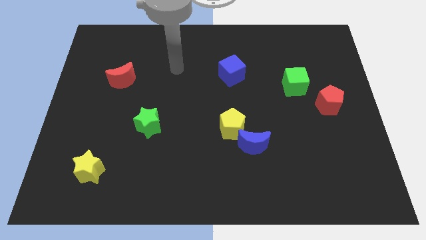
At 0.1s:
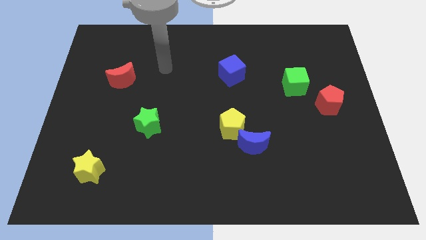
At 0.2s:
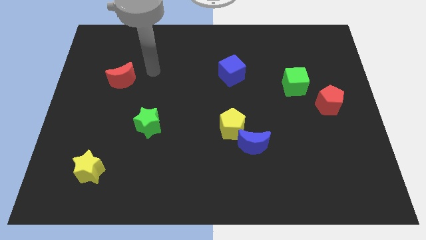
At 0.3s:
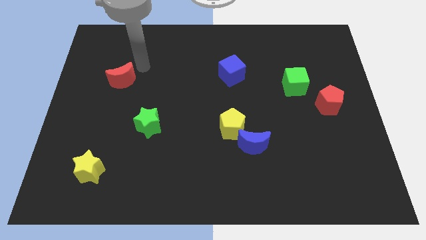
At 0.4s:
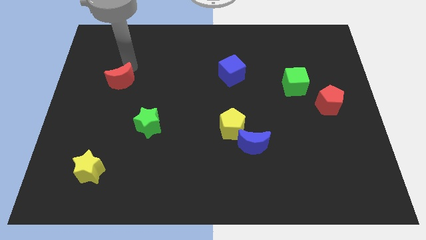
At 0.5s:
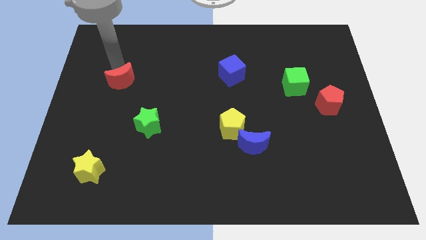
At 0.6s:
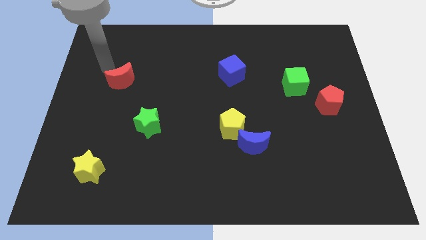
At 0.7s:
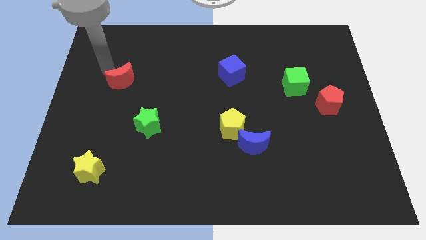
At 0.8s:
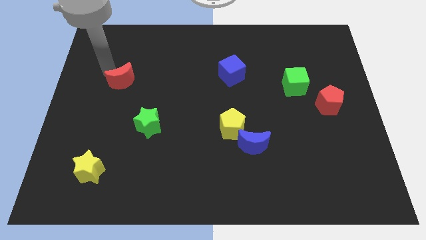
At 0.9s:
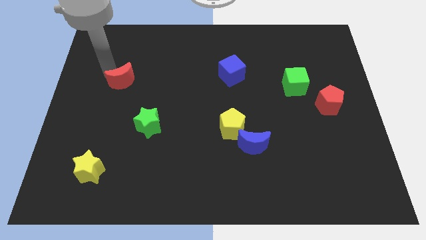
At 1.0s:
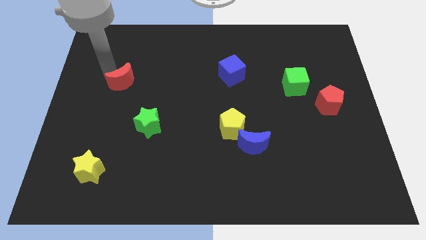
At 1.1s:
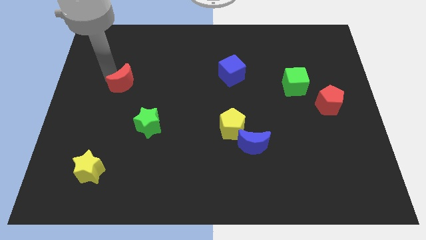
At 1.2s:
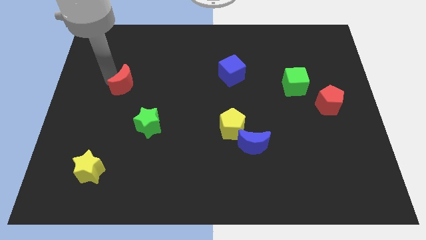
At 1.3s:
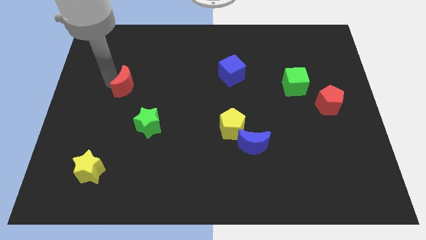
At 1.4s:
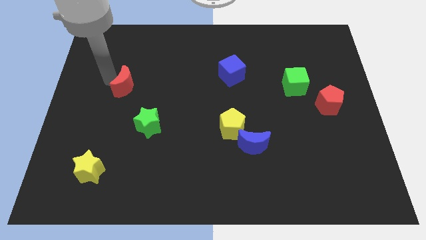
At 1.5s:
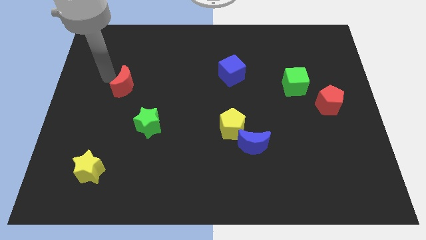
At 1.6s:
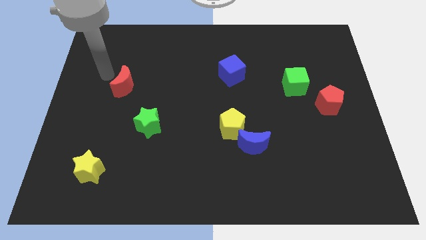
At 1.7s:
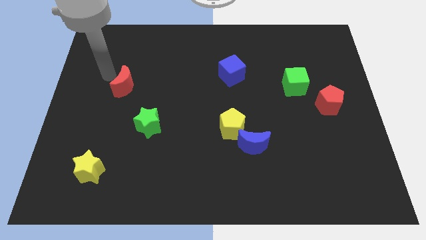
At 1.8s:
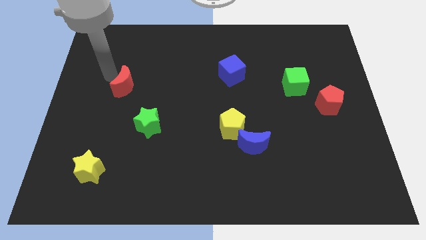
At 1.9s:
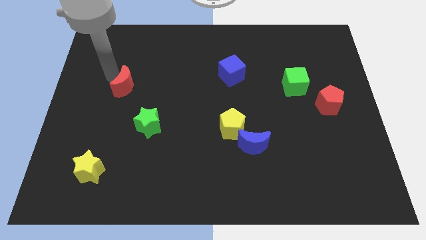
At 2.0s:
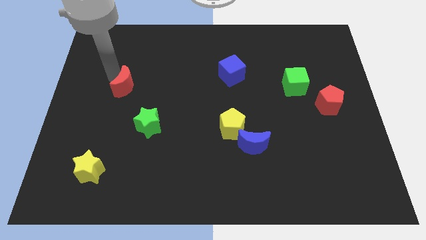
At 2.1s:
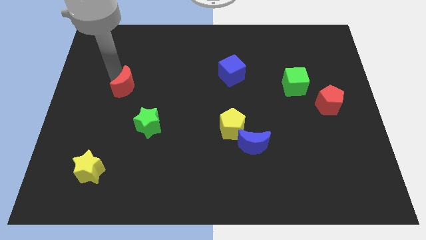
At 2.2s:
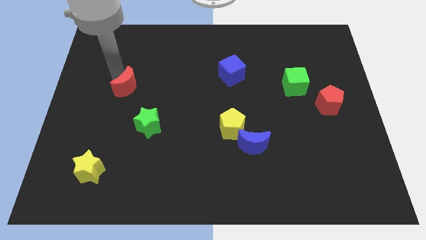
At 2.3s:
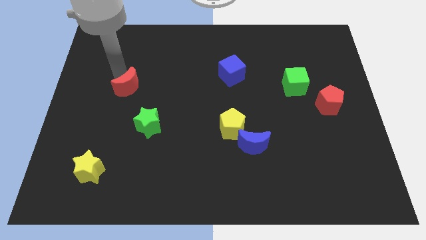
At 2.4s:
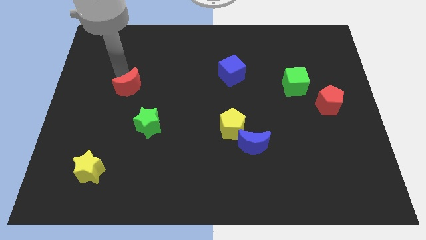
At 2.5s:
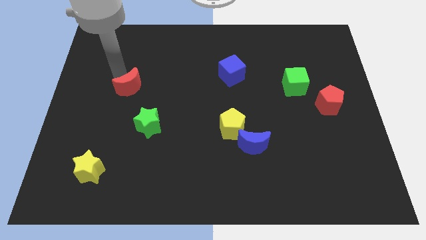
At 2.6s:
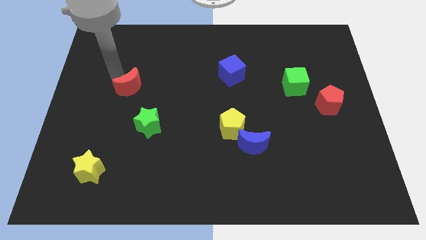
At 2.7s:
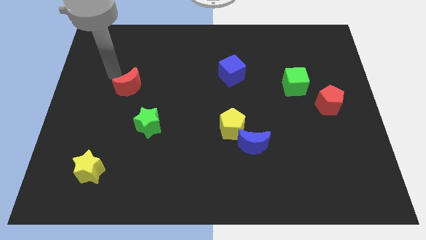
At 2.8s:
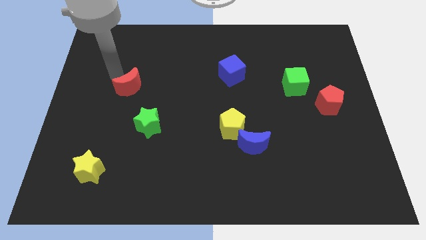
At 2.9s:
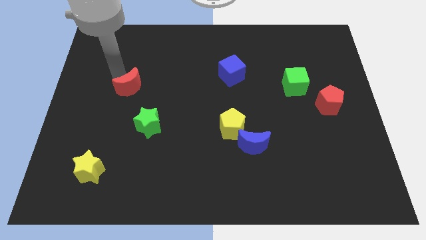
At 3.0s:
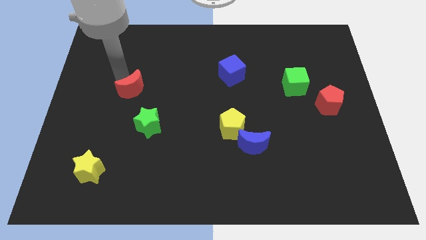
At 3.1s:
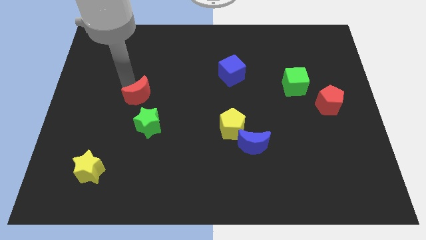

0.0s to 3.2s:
slightly slide the red moon down and to the right diagonally

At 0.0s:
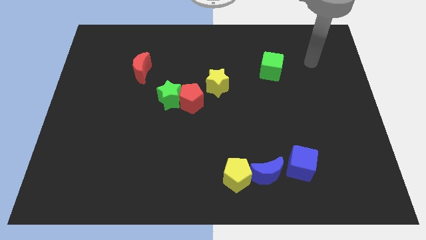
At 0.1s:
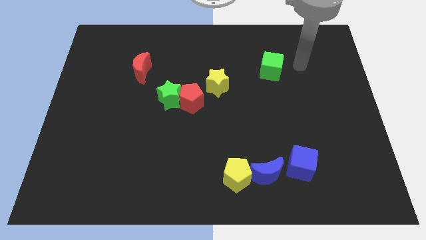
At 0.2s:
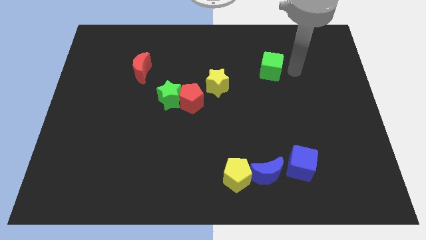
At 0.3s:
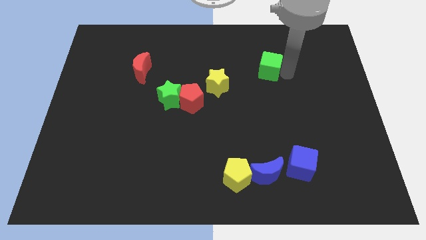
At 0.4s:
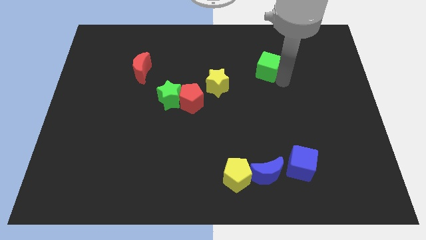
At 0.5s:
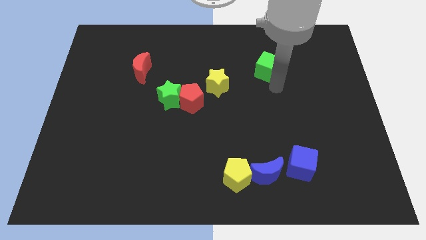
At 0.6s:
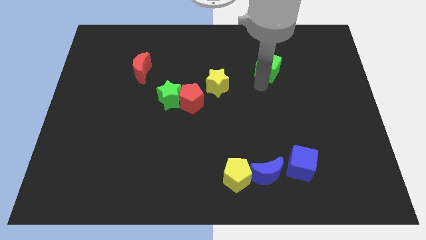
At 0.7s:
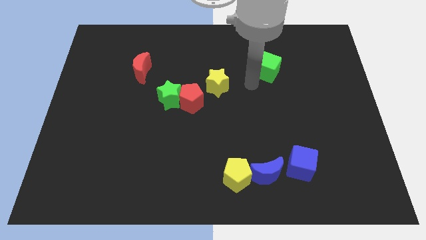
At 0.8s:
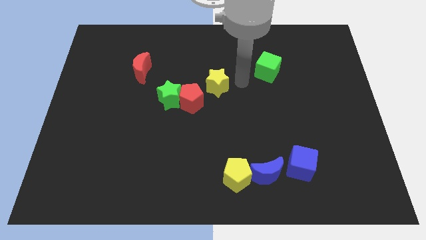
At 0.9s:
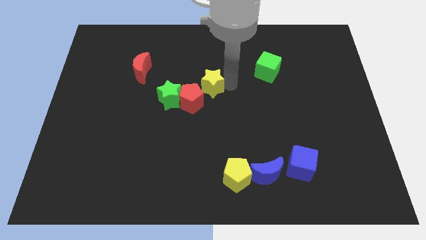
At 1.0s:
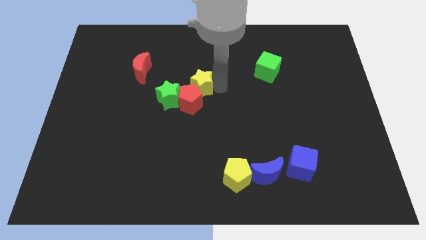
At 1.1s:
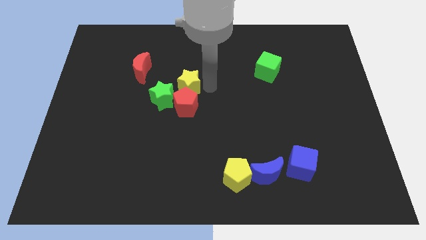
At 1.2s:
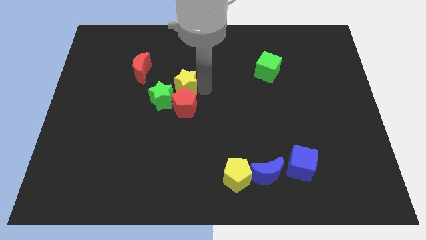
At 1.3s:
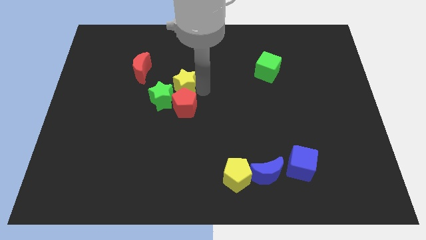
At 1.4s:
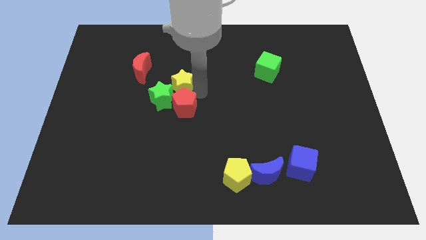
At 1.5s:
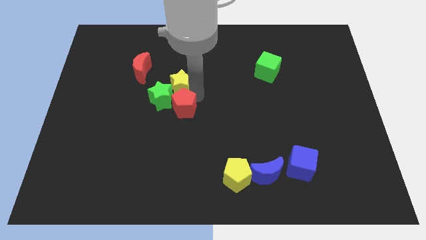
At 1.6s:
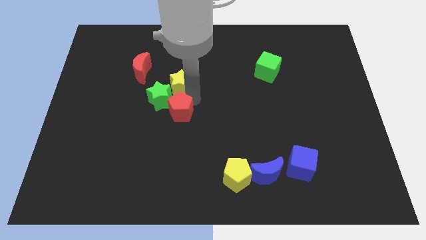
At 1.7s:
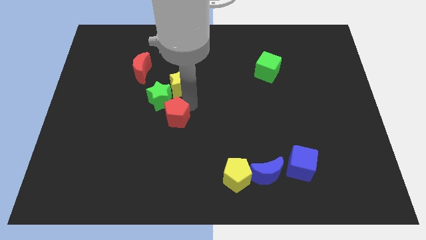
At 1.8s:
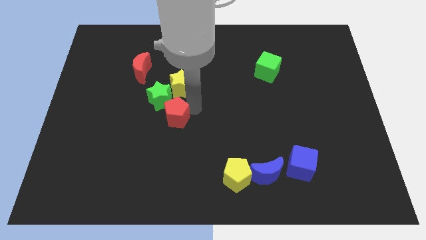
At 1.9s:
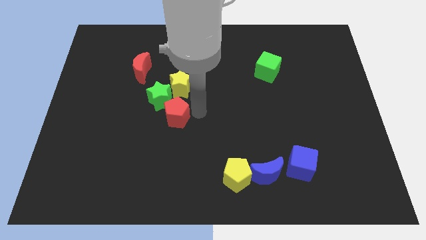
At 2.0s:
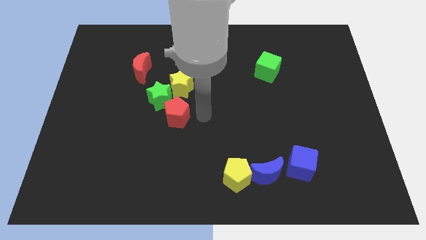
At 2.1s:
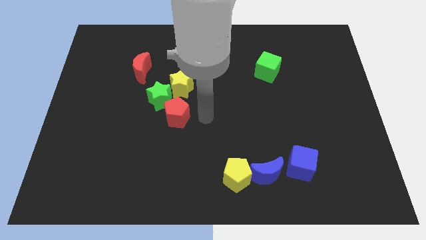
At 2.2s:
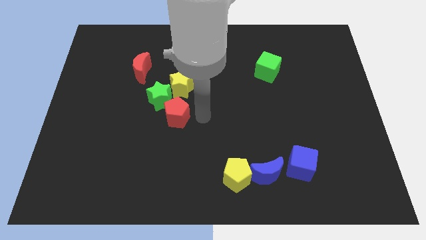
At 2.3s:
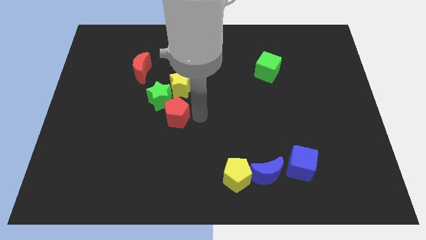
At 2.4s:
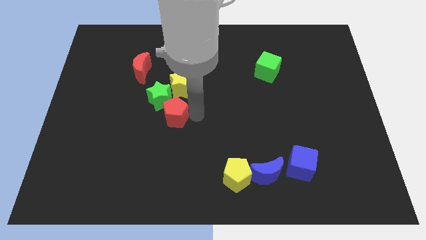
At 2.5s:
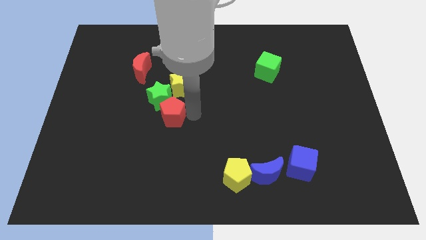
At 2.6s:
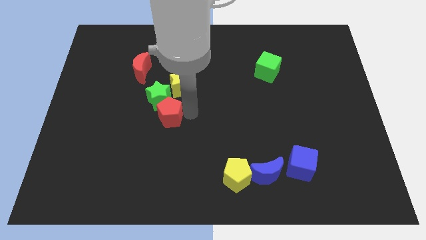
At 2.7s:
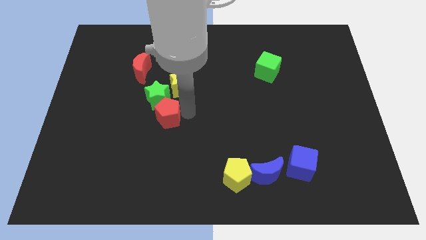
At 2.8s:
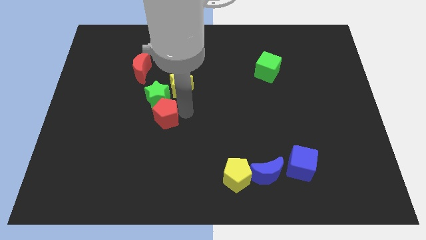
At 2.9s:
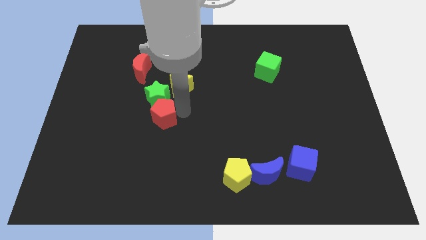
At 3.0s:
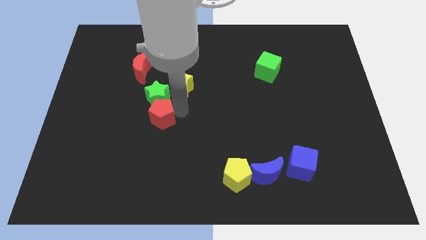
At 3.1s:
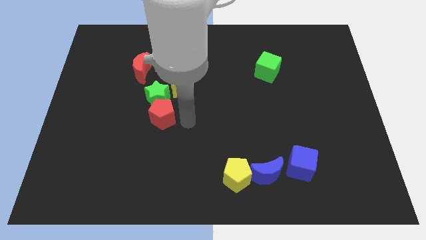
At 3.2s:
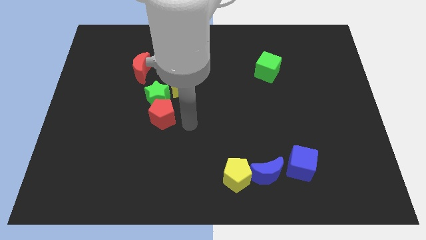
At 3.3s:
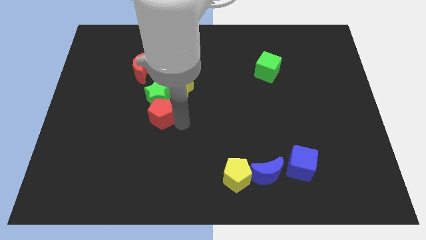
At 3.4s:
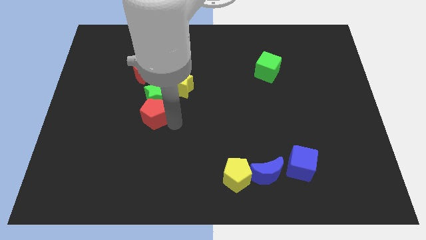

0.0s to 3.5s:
slightly move the red pentagon to the left

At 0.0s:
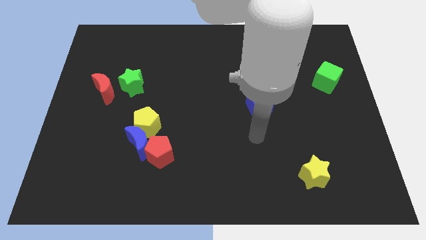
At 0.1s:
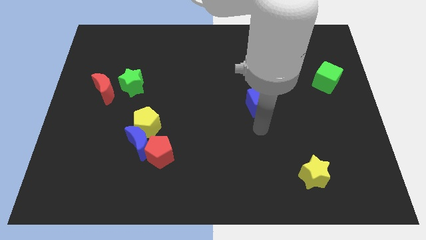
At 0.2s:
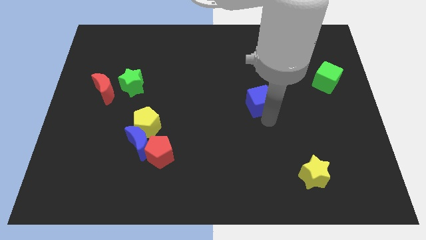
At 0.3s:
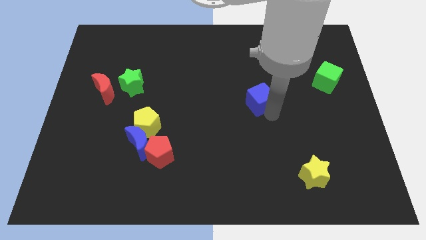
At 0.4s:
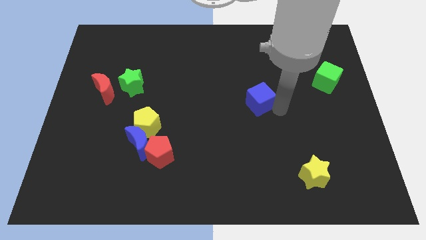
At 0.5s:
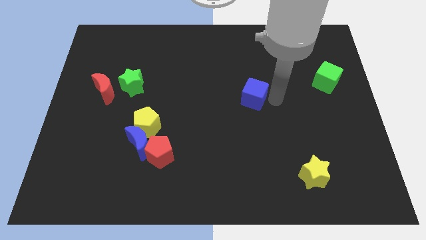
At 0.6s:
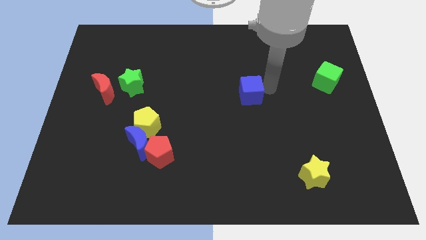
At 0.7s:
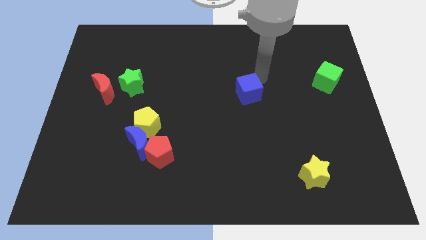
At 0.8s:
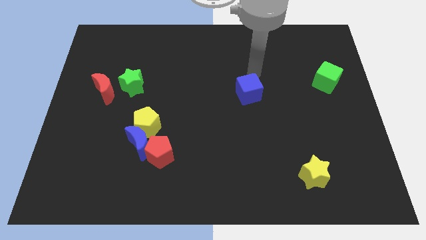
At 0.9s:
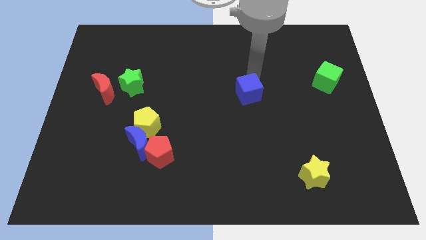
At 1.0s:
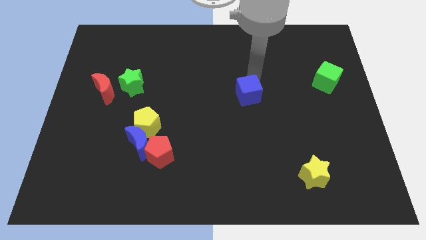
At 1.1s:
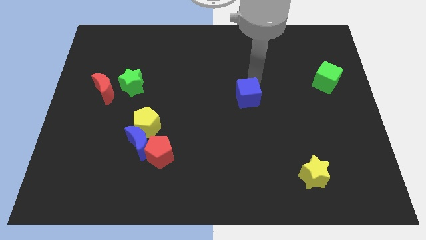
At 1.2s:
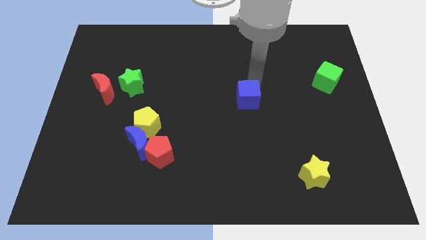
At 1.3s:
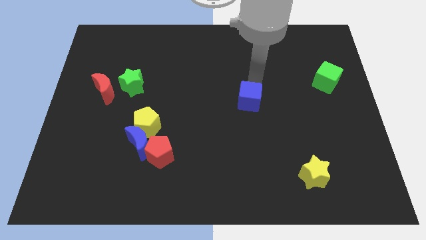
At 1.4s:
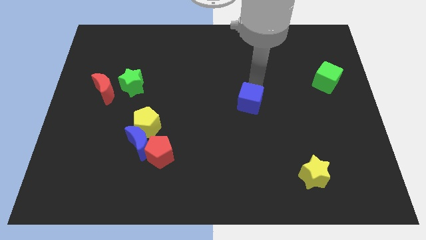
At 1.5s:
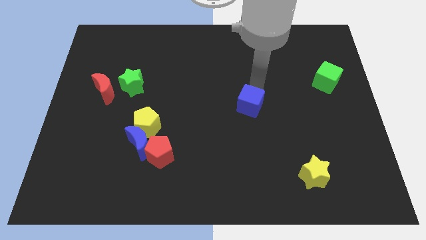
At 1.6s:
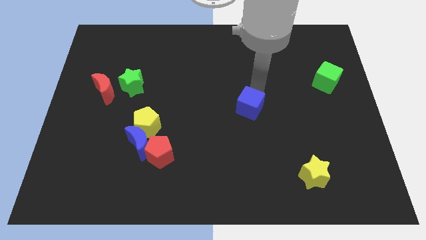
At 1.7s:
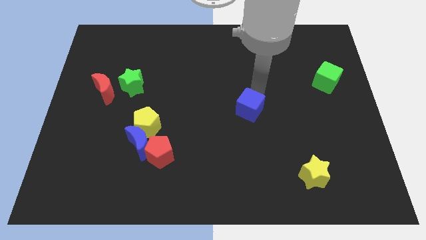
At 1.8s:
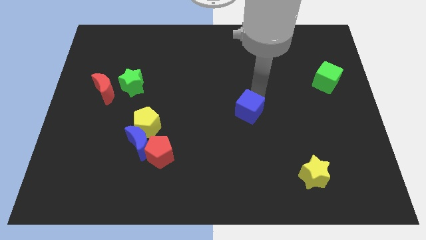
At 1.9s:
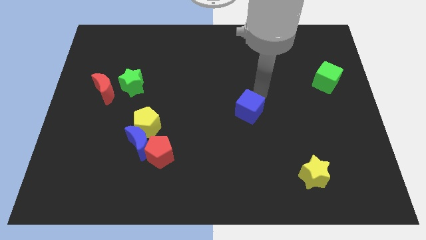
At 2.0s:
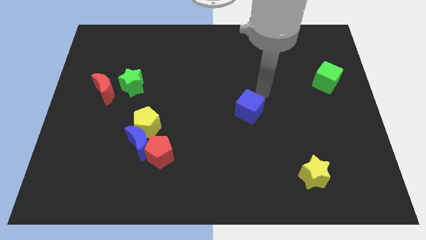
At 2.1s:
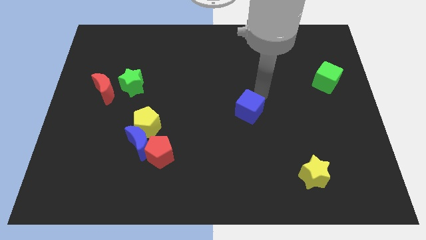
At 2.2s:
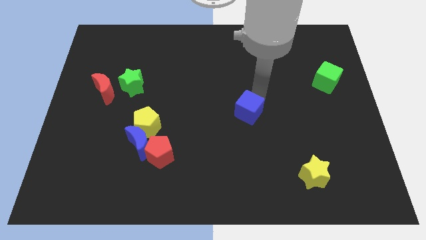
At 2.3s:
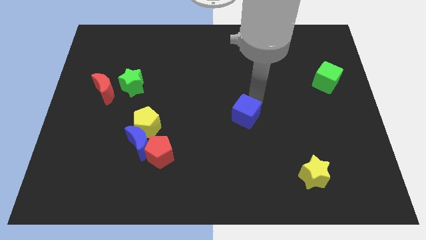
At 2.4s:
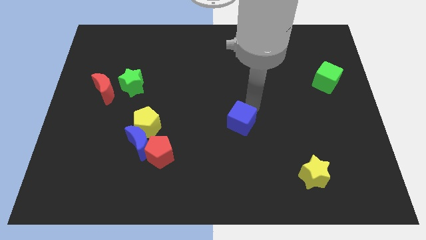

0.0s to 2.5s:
slide the blue cube slightly down and to the left
